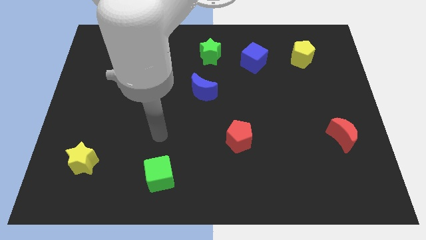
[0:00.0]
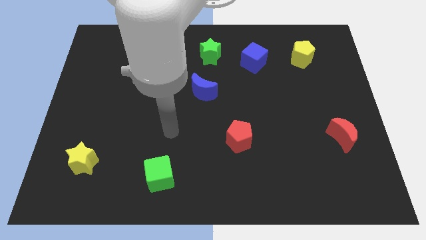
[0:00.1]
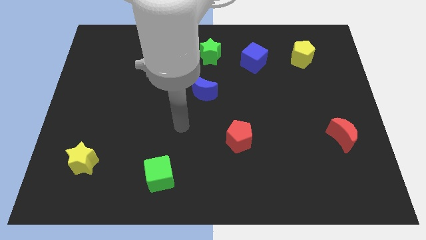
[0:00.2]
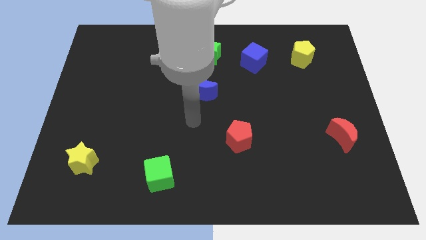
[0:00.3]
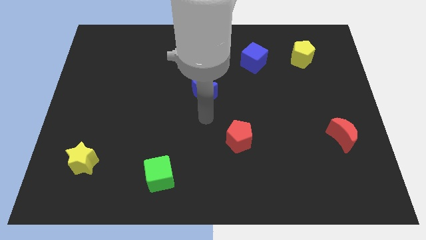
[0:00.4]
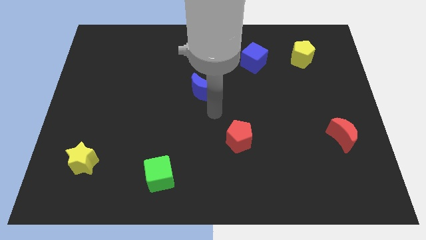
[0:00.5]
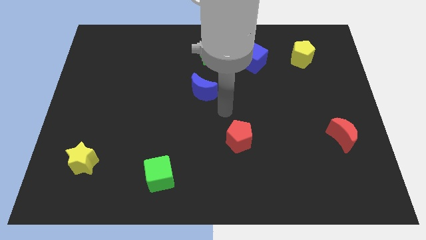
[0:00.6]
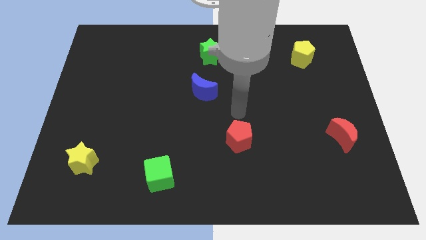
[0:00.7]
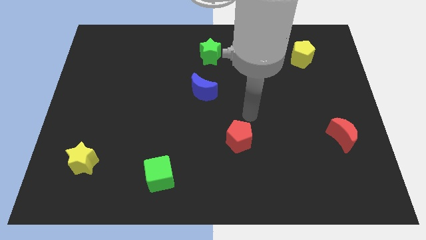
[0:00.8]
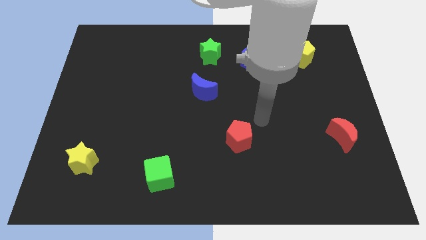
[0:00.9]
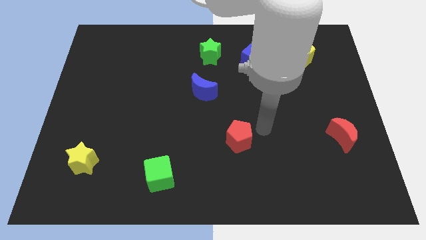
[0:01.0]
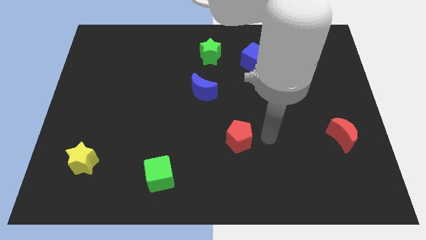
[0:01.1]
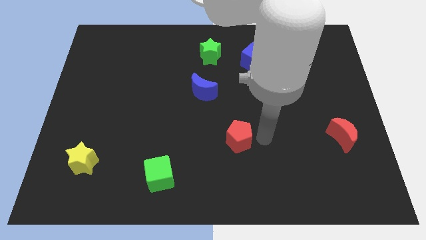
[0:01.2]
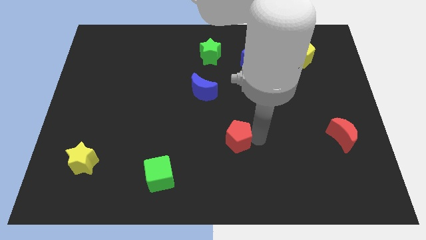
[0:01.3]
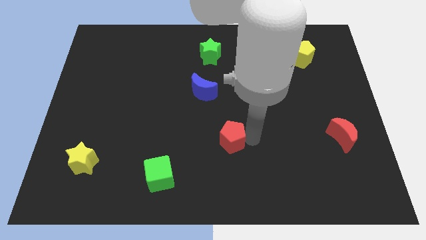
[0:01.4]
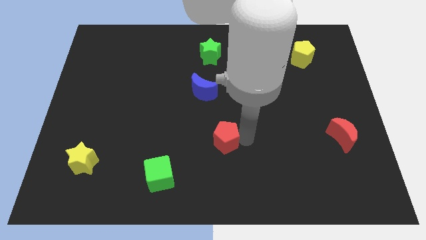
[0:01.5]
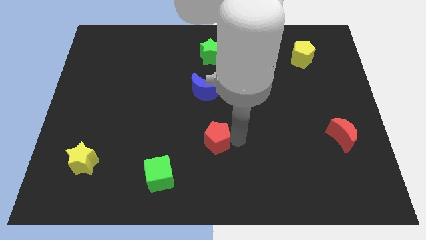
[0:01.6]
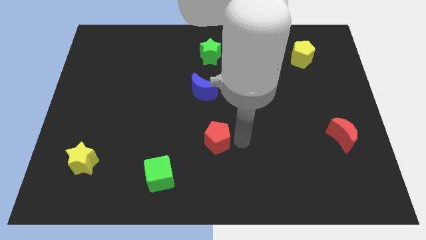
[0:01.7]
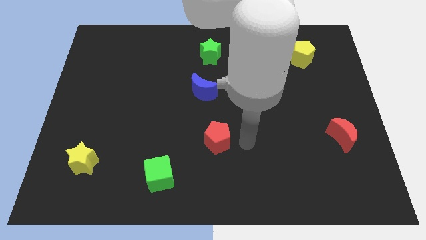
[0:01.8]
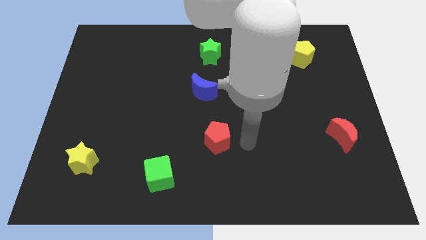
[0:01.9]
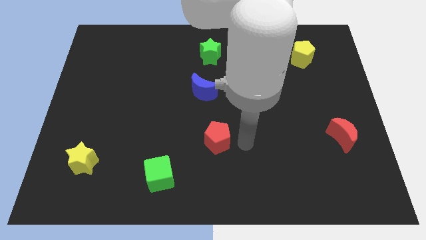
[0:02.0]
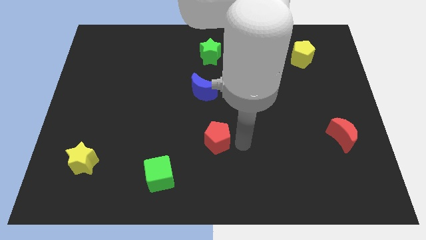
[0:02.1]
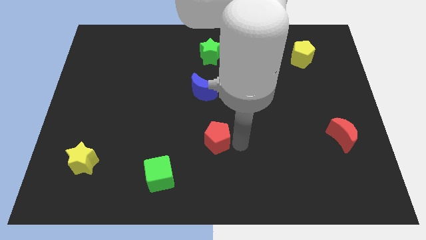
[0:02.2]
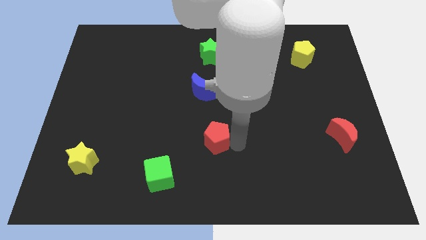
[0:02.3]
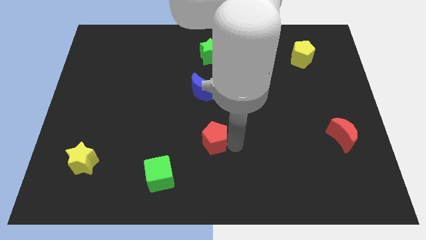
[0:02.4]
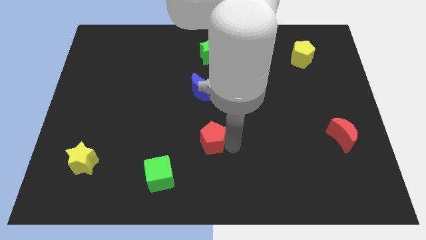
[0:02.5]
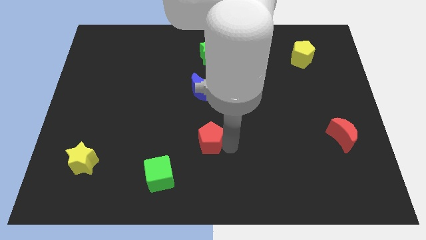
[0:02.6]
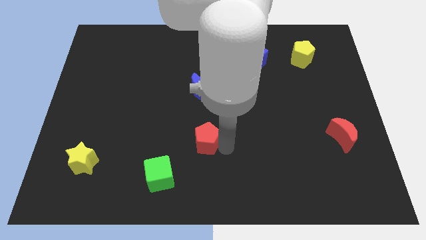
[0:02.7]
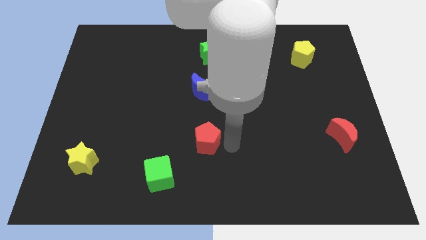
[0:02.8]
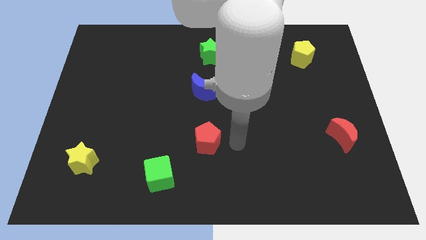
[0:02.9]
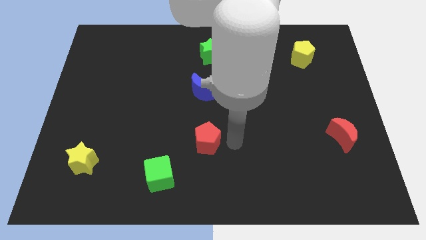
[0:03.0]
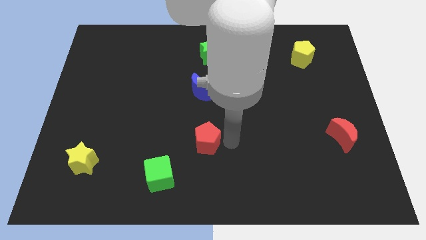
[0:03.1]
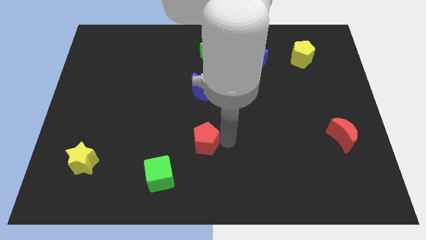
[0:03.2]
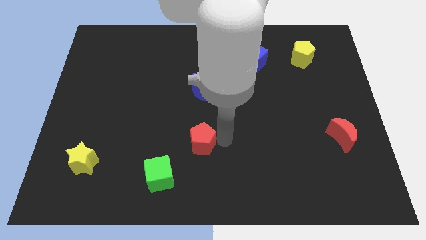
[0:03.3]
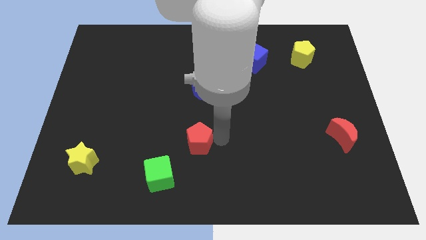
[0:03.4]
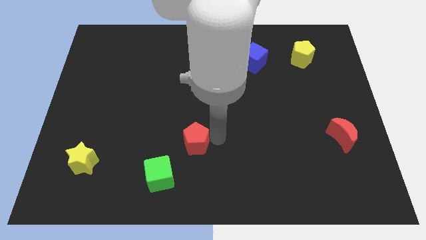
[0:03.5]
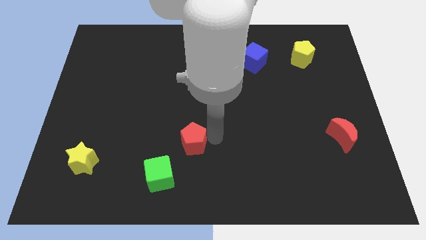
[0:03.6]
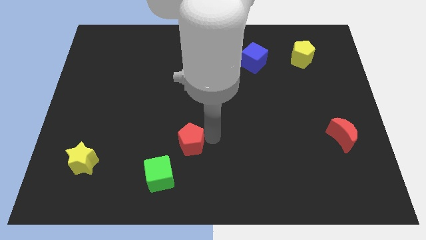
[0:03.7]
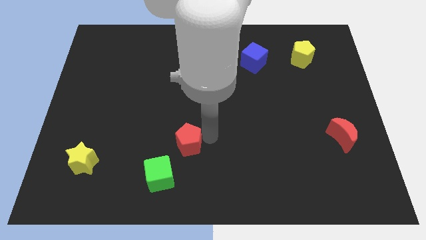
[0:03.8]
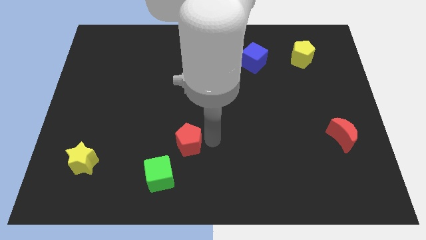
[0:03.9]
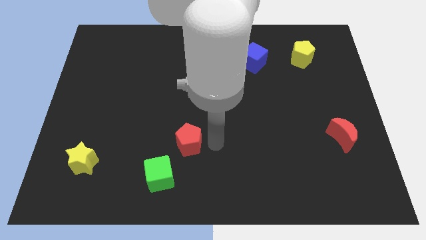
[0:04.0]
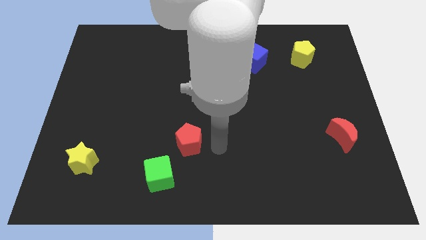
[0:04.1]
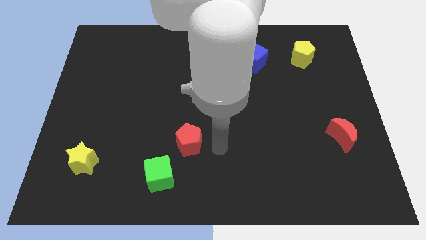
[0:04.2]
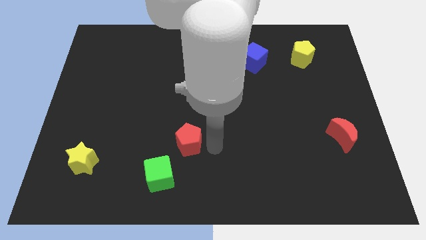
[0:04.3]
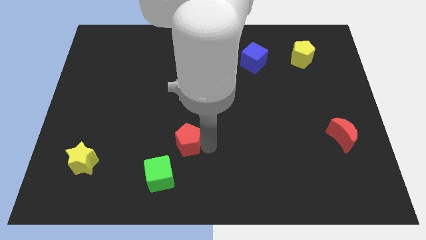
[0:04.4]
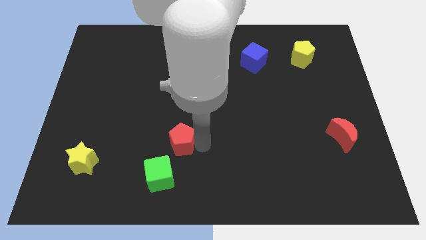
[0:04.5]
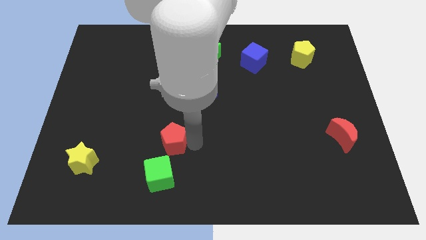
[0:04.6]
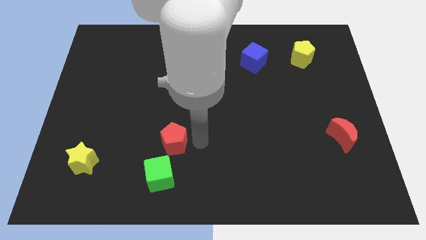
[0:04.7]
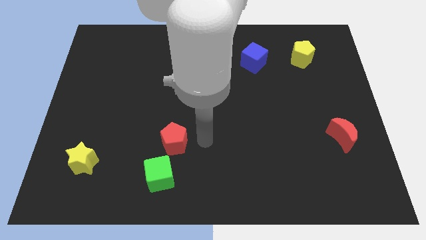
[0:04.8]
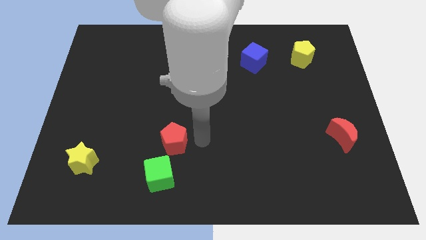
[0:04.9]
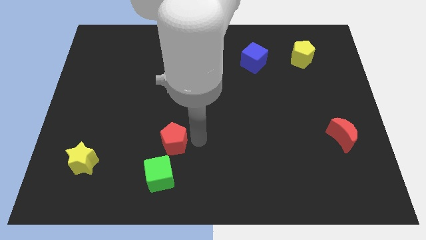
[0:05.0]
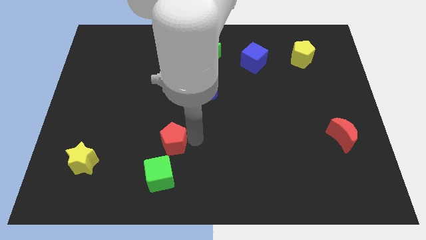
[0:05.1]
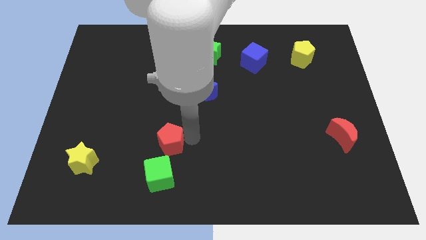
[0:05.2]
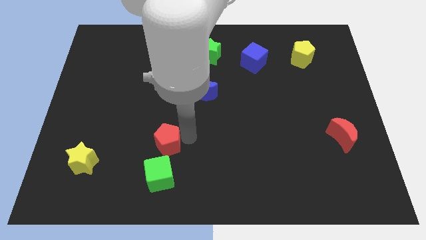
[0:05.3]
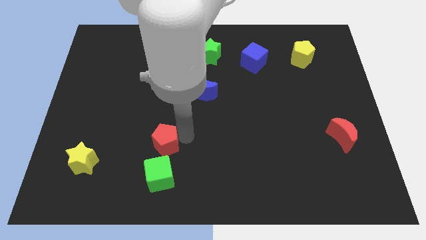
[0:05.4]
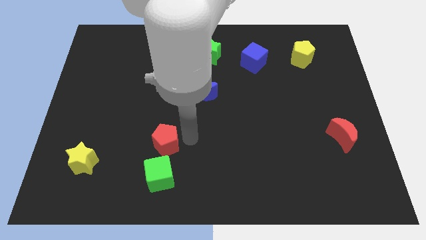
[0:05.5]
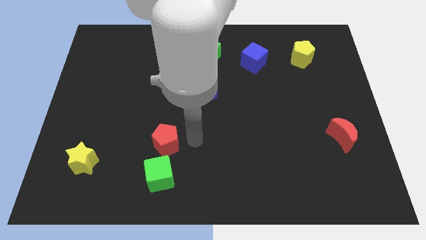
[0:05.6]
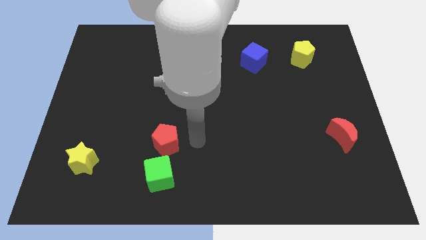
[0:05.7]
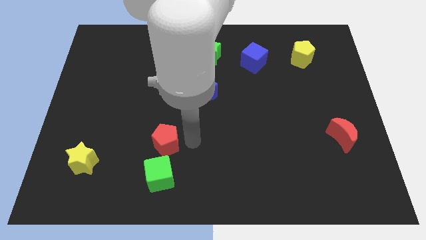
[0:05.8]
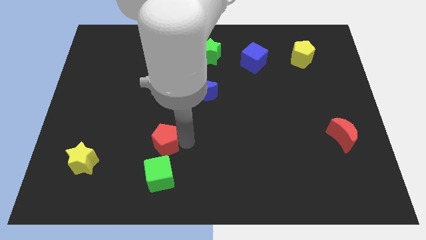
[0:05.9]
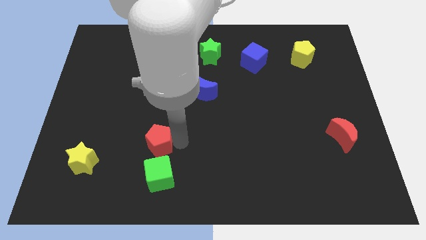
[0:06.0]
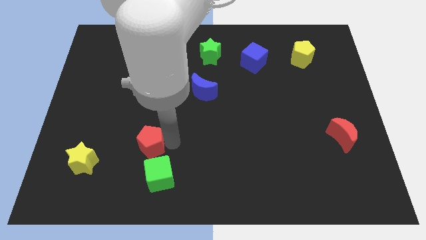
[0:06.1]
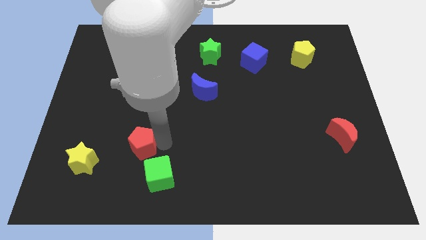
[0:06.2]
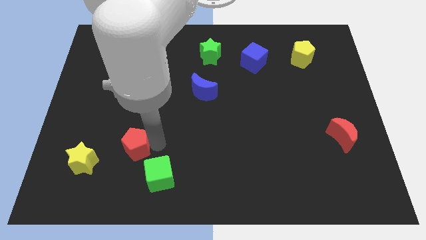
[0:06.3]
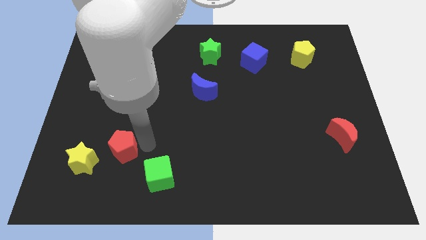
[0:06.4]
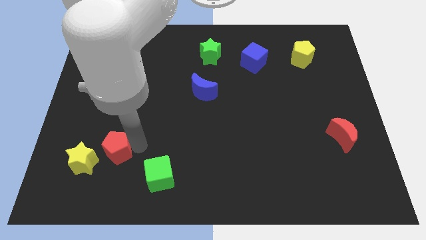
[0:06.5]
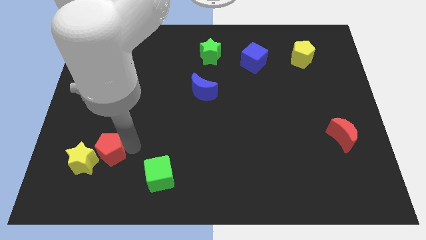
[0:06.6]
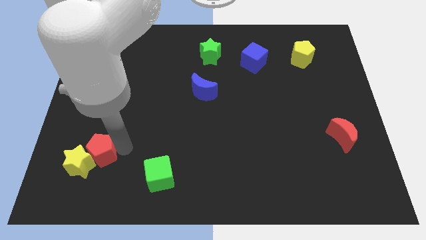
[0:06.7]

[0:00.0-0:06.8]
slide the red pentagon to the yellow star
